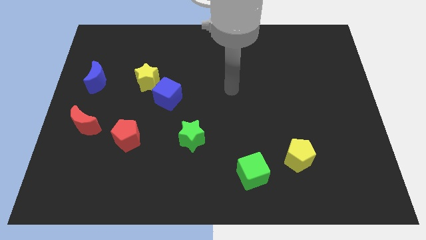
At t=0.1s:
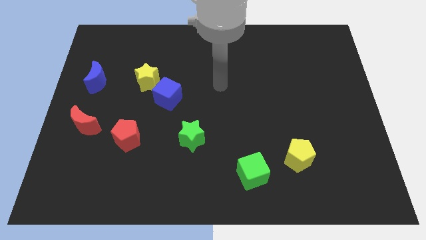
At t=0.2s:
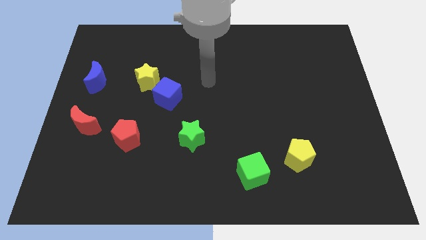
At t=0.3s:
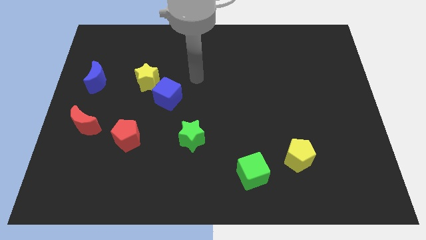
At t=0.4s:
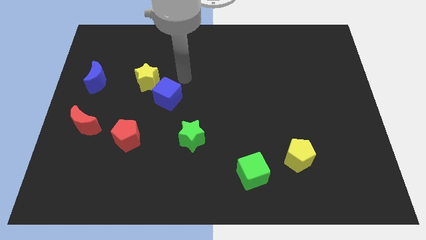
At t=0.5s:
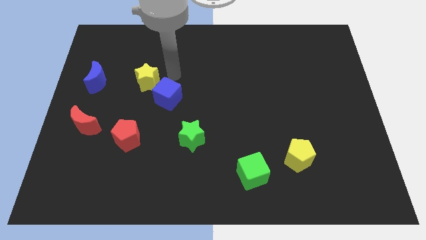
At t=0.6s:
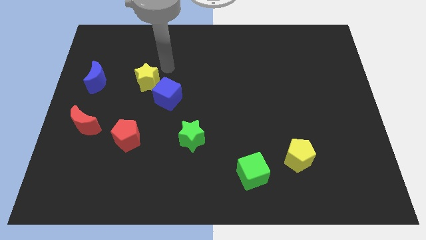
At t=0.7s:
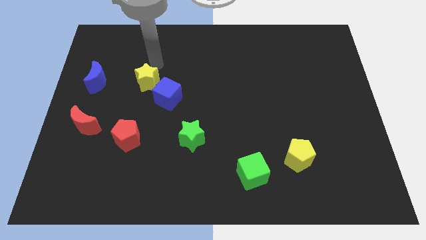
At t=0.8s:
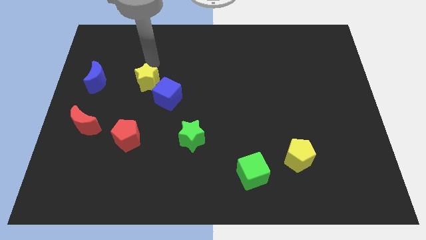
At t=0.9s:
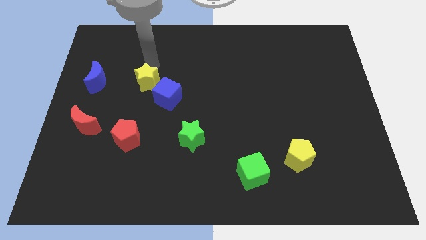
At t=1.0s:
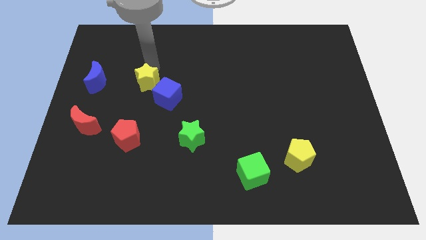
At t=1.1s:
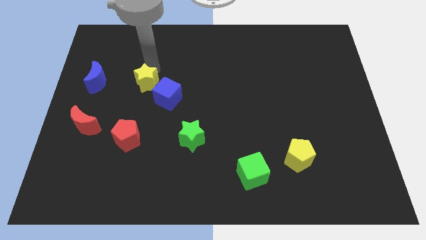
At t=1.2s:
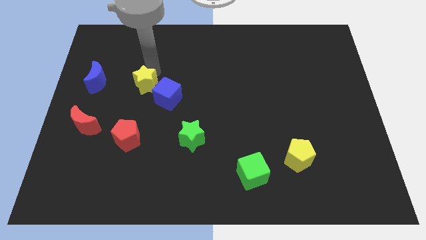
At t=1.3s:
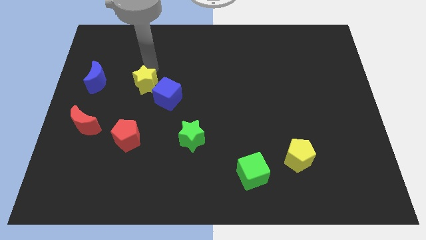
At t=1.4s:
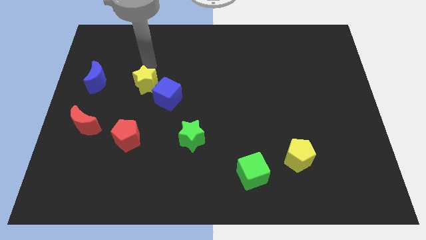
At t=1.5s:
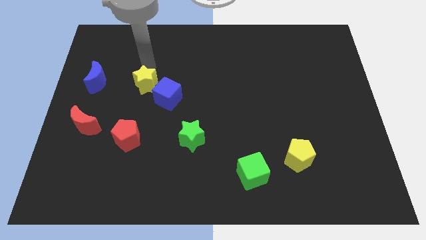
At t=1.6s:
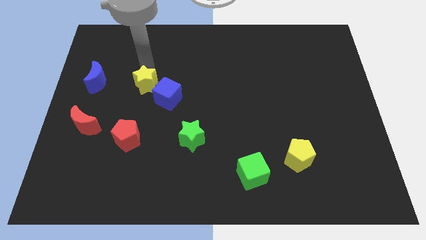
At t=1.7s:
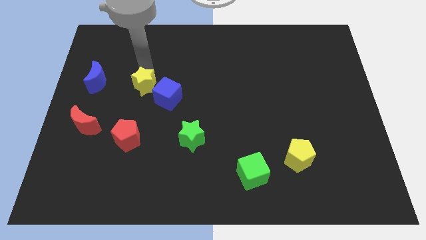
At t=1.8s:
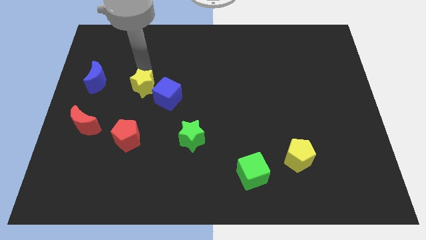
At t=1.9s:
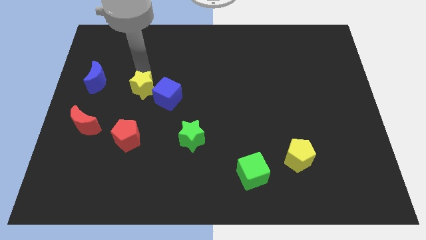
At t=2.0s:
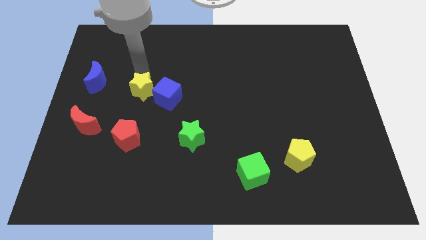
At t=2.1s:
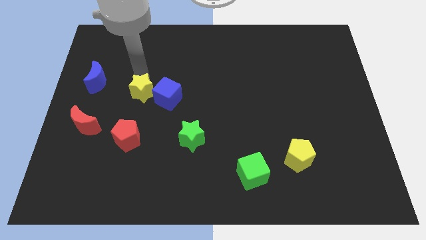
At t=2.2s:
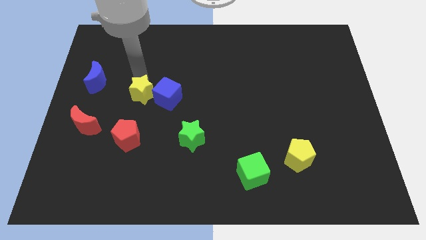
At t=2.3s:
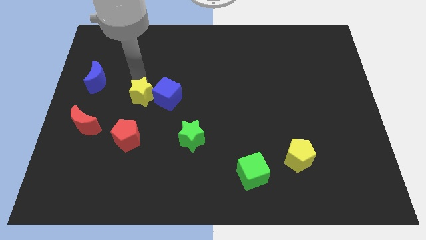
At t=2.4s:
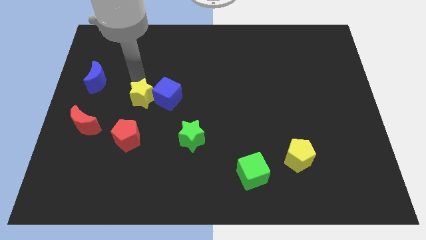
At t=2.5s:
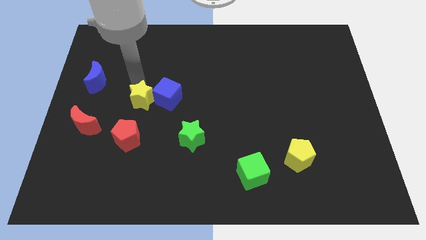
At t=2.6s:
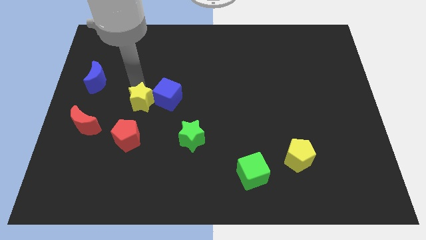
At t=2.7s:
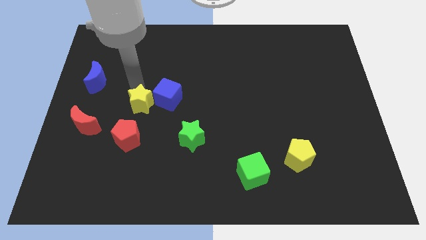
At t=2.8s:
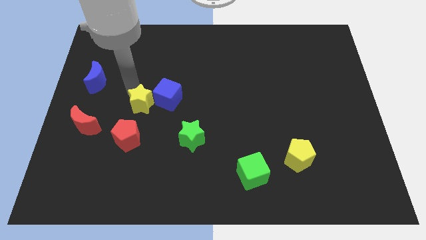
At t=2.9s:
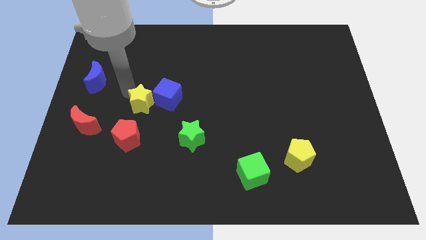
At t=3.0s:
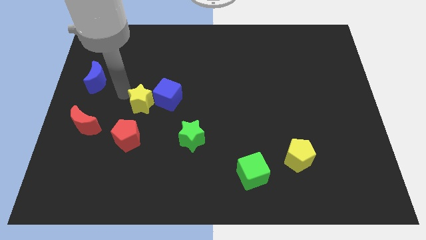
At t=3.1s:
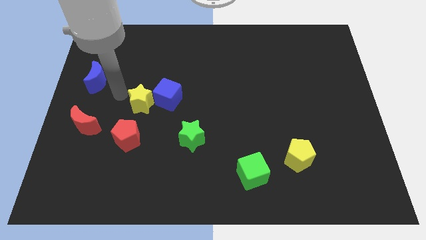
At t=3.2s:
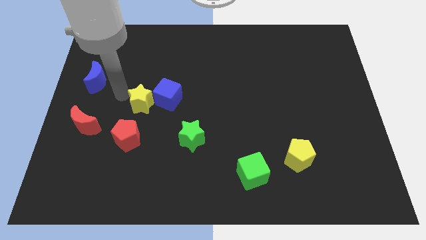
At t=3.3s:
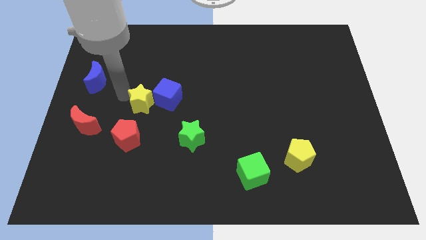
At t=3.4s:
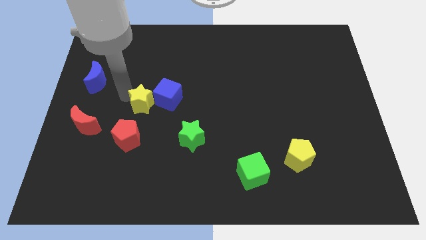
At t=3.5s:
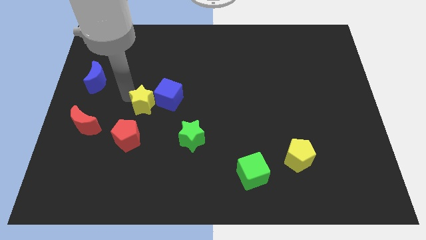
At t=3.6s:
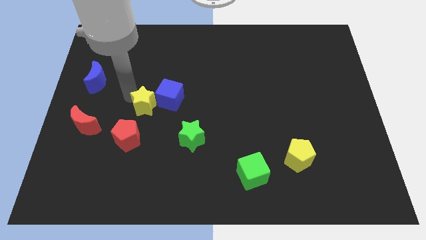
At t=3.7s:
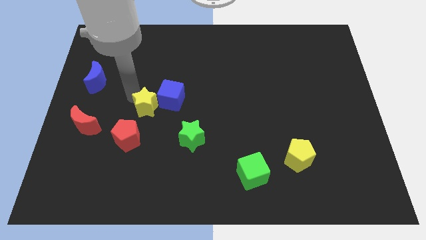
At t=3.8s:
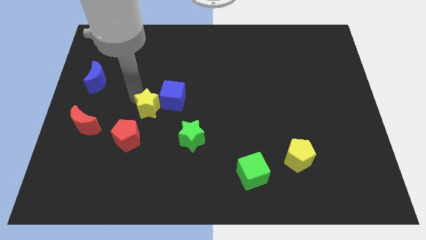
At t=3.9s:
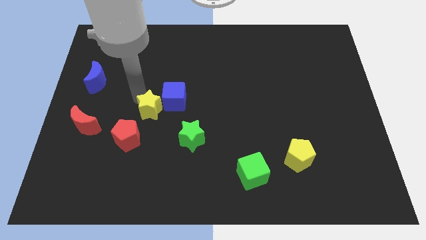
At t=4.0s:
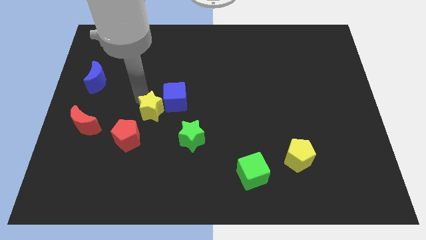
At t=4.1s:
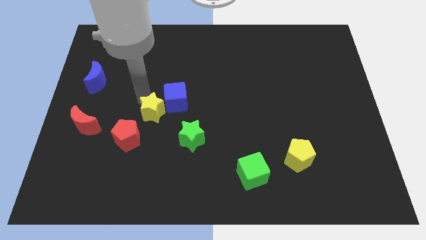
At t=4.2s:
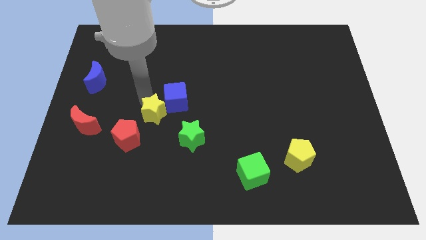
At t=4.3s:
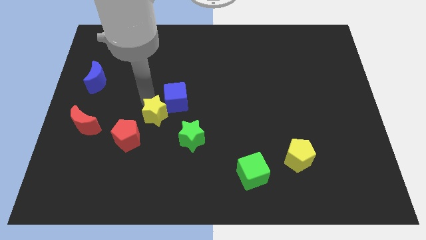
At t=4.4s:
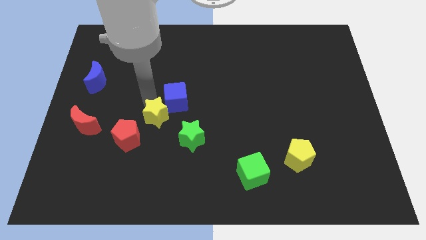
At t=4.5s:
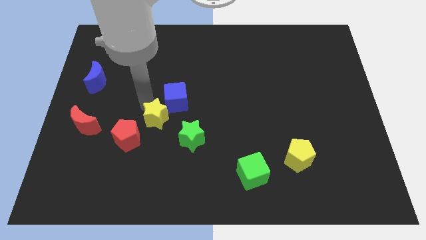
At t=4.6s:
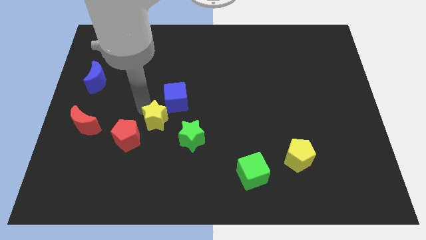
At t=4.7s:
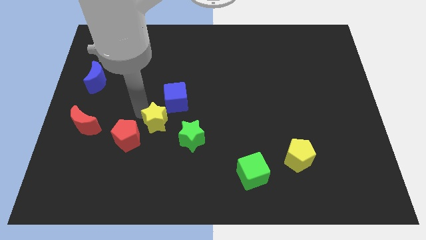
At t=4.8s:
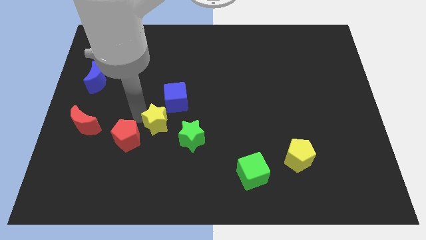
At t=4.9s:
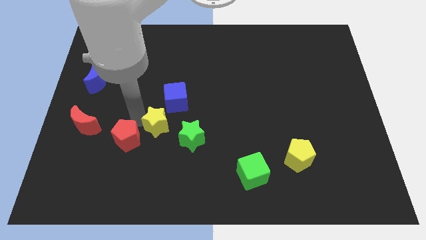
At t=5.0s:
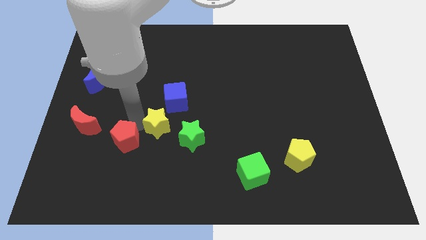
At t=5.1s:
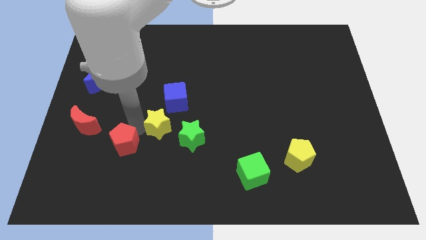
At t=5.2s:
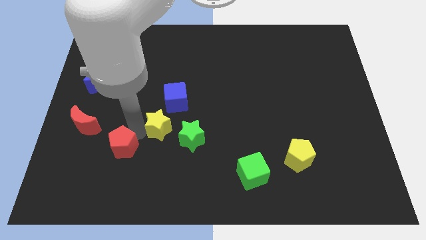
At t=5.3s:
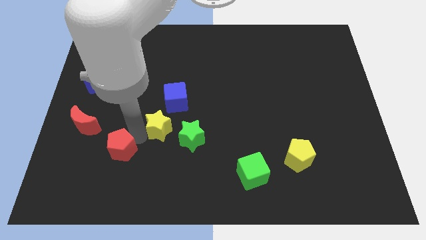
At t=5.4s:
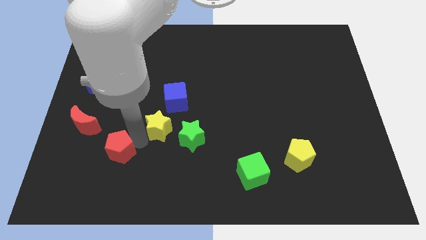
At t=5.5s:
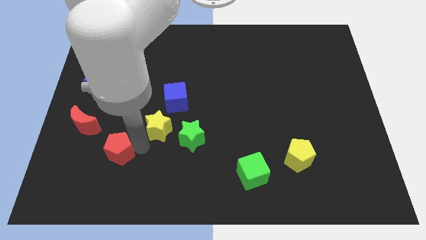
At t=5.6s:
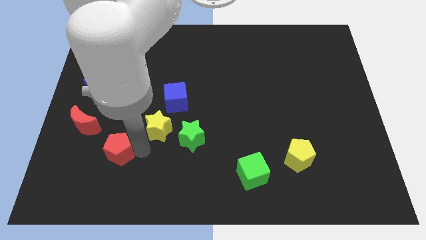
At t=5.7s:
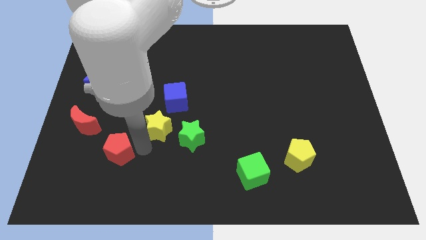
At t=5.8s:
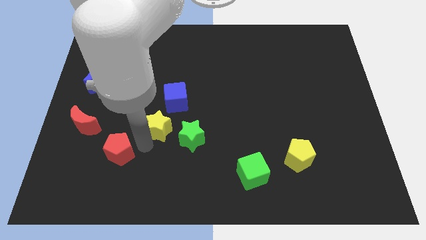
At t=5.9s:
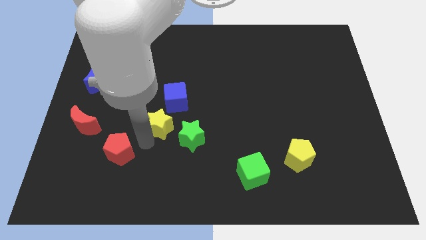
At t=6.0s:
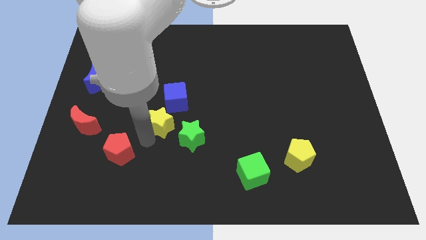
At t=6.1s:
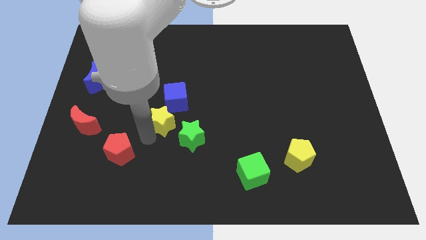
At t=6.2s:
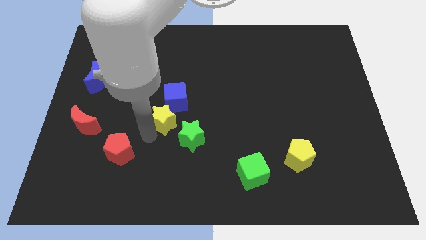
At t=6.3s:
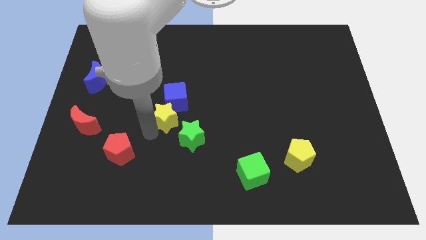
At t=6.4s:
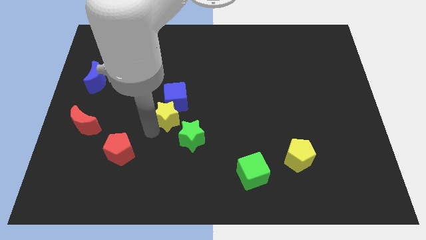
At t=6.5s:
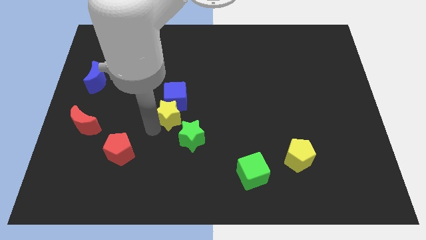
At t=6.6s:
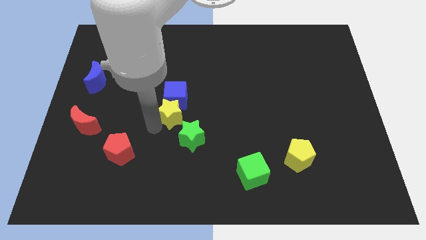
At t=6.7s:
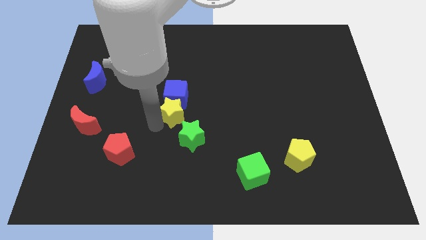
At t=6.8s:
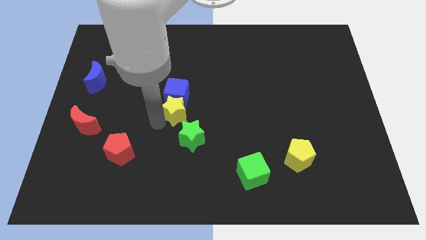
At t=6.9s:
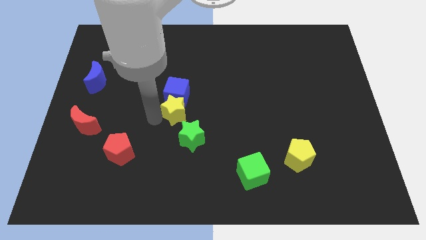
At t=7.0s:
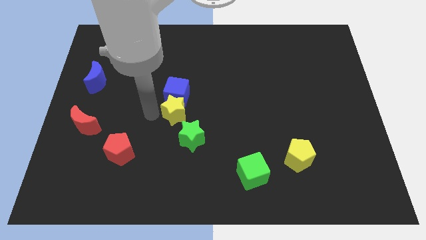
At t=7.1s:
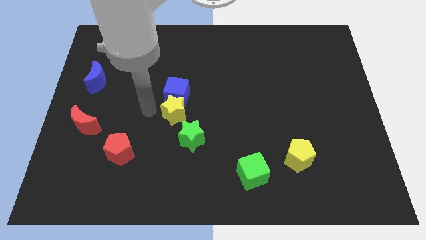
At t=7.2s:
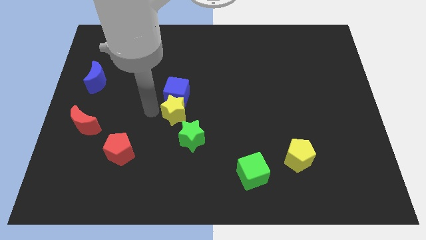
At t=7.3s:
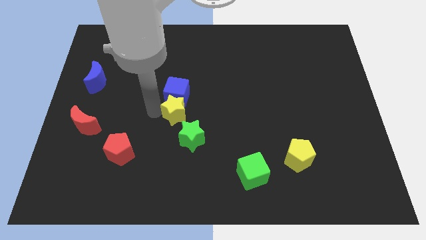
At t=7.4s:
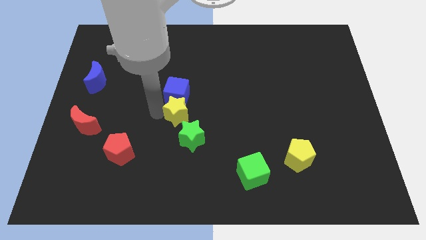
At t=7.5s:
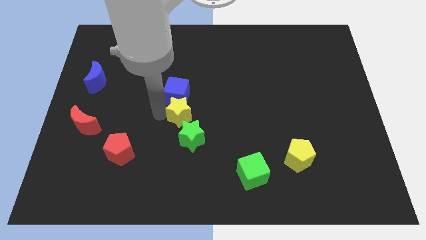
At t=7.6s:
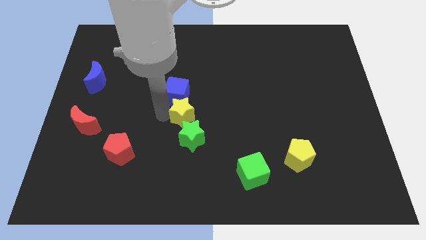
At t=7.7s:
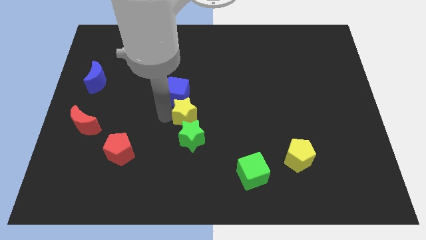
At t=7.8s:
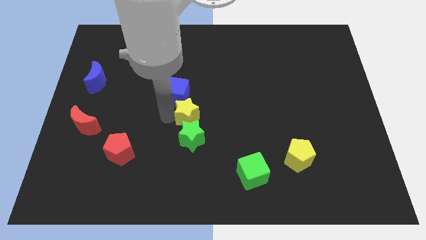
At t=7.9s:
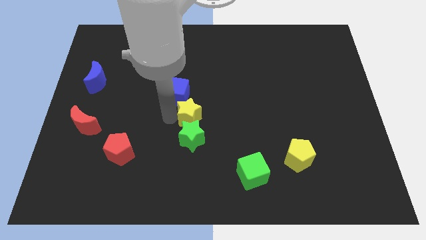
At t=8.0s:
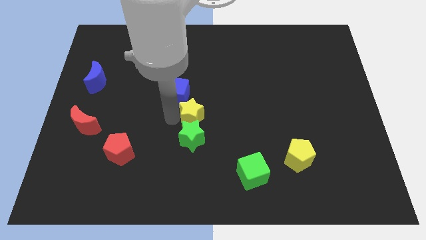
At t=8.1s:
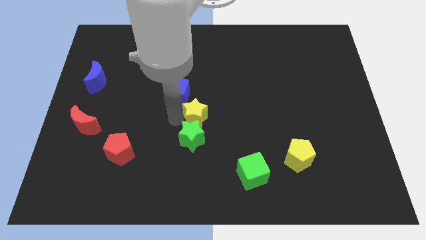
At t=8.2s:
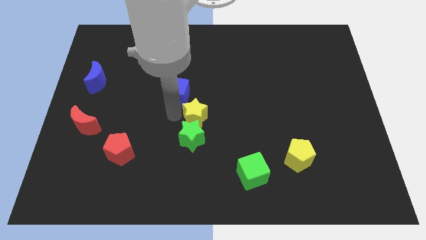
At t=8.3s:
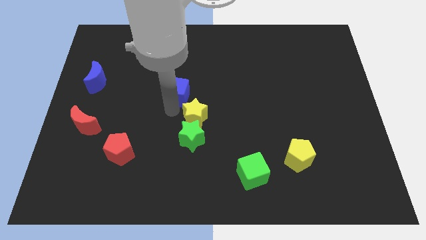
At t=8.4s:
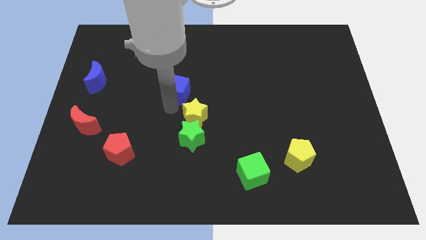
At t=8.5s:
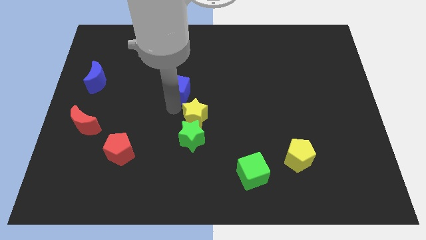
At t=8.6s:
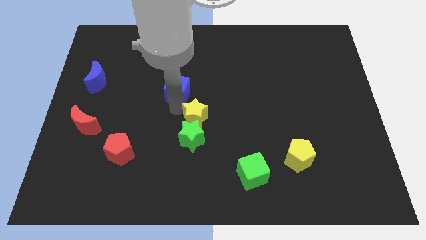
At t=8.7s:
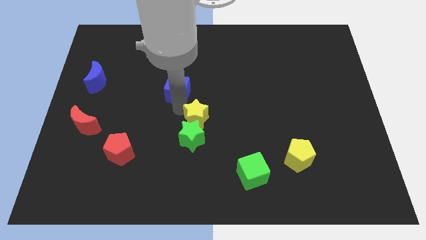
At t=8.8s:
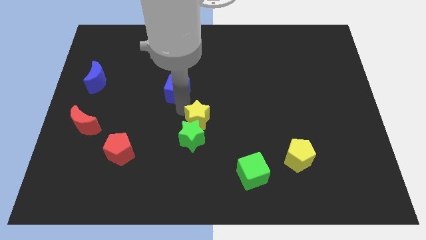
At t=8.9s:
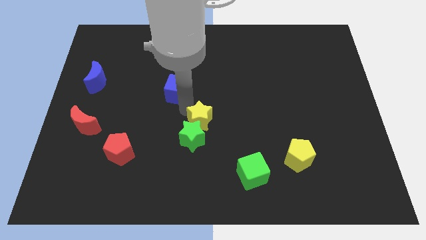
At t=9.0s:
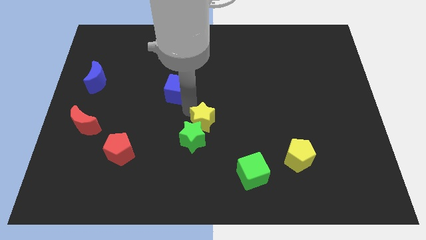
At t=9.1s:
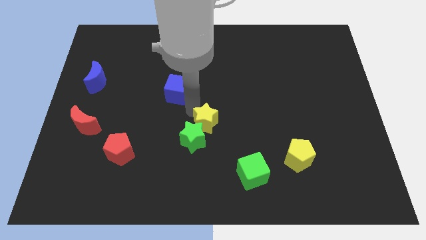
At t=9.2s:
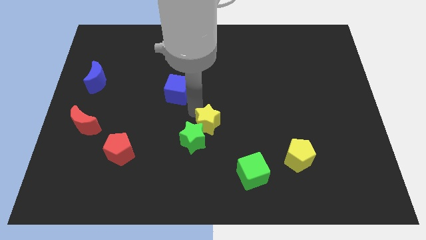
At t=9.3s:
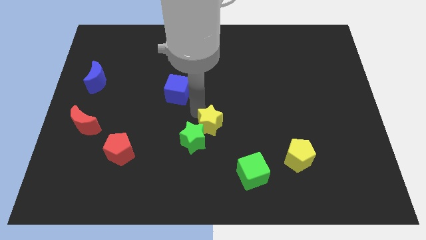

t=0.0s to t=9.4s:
slide the yellow star right of the green star
